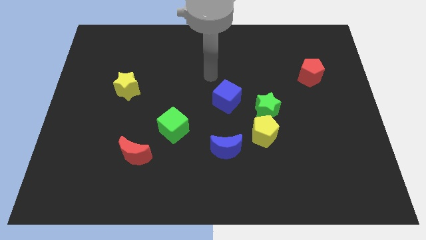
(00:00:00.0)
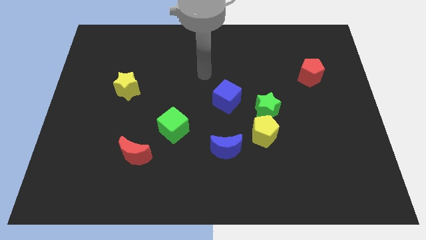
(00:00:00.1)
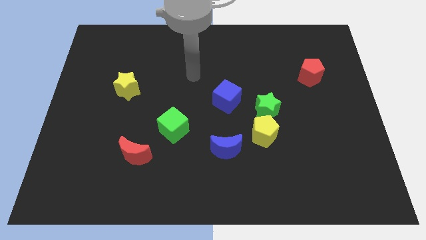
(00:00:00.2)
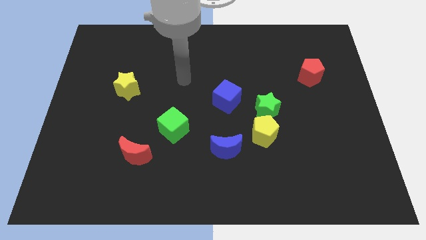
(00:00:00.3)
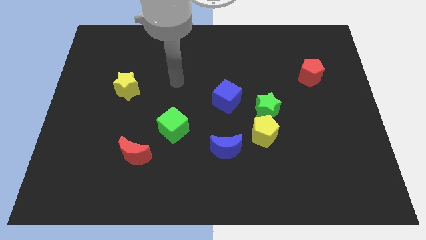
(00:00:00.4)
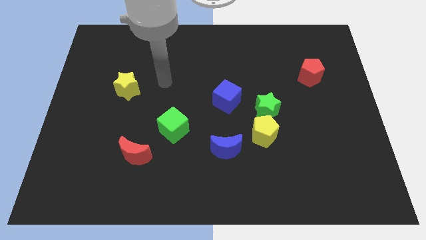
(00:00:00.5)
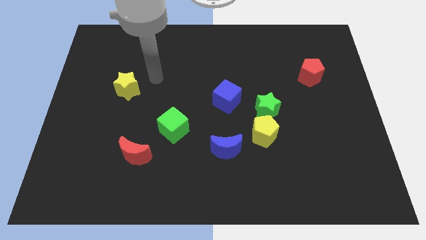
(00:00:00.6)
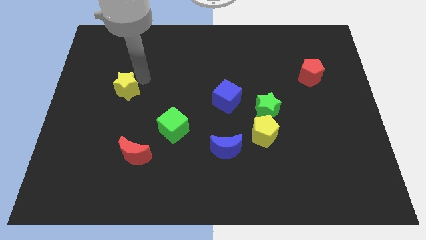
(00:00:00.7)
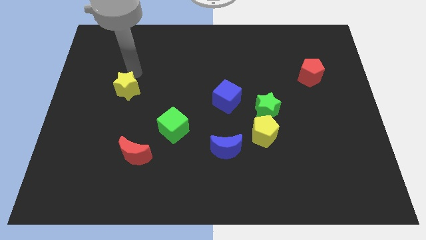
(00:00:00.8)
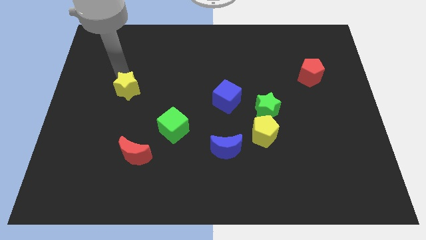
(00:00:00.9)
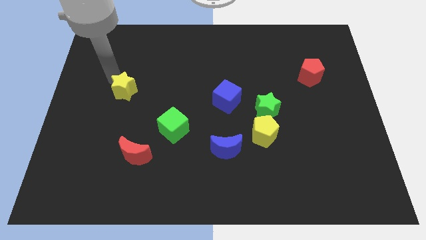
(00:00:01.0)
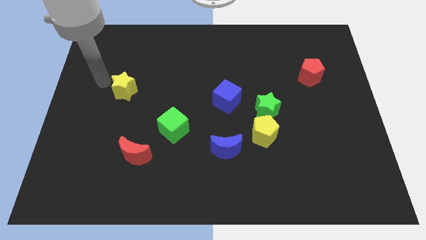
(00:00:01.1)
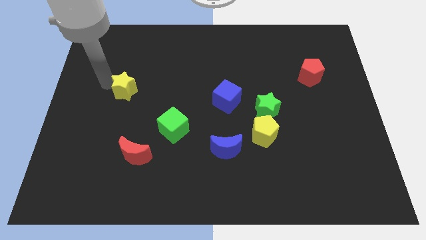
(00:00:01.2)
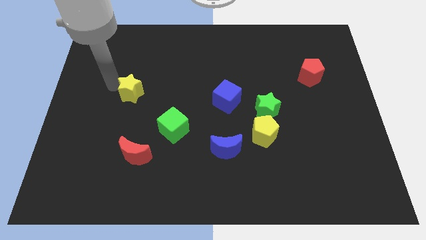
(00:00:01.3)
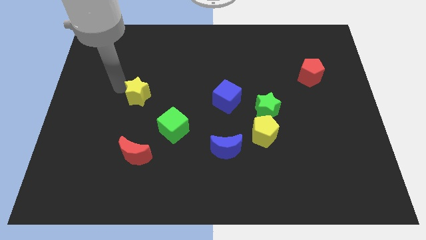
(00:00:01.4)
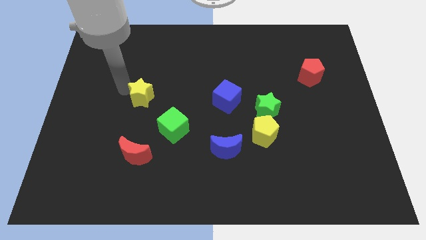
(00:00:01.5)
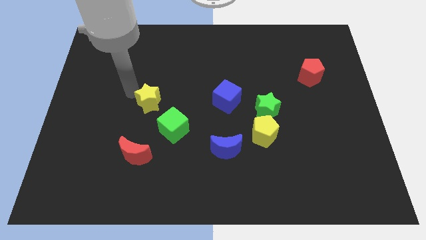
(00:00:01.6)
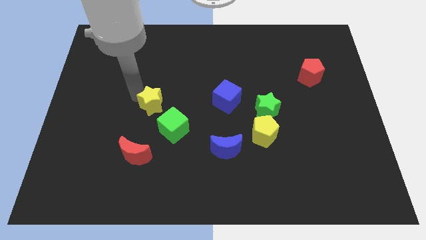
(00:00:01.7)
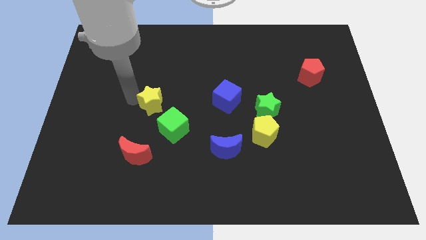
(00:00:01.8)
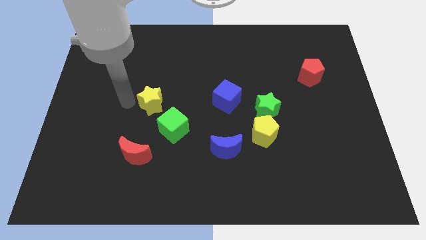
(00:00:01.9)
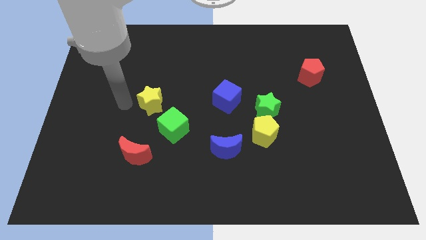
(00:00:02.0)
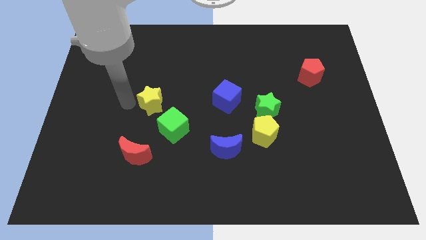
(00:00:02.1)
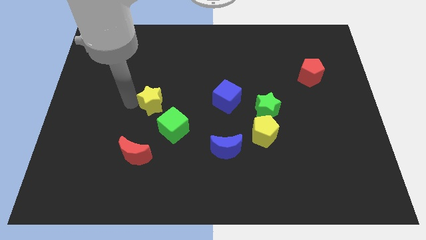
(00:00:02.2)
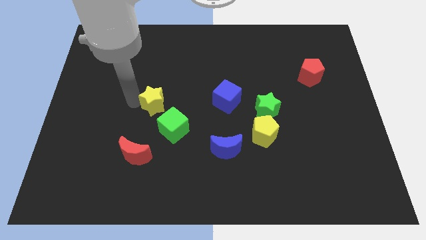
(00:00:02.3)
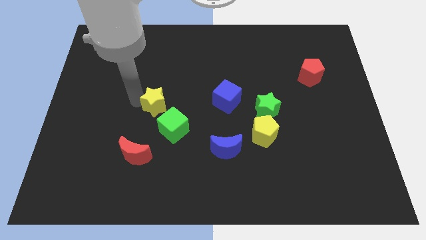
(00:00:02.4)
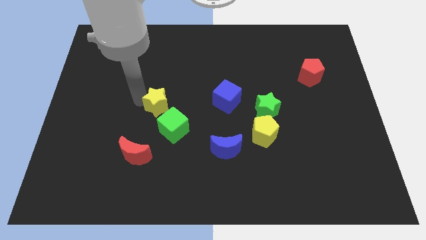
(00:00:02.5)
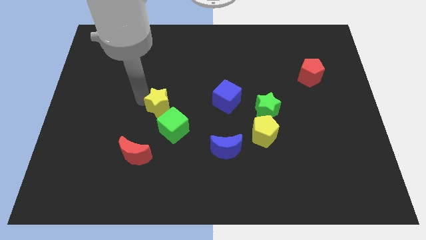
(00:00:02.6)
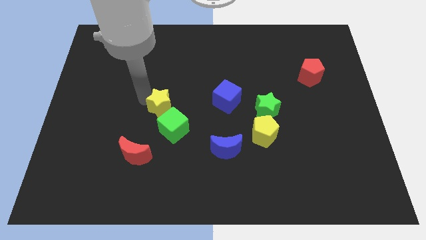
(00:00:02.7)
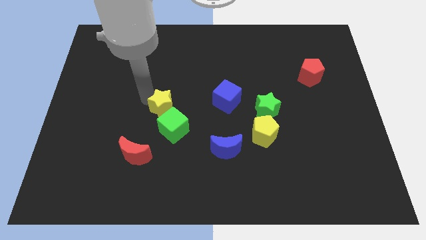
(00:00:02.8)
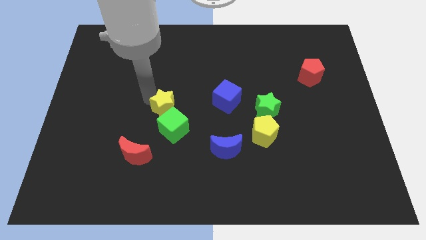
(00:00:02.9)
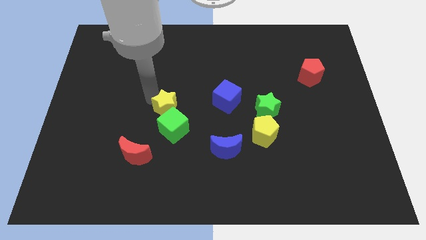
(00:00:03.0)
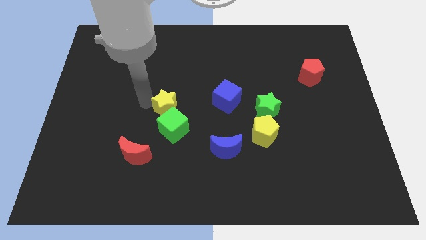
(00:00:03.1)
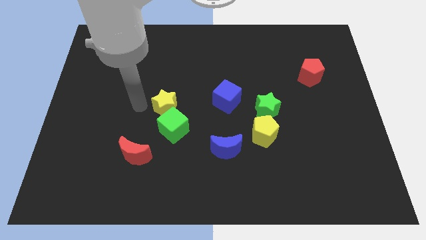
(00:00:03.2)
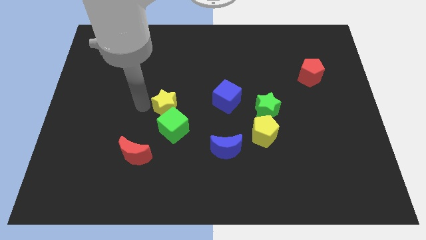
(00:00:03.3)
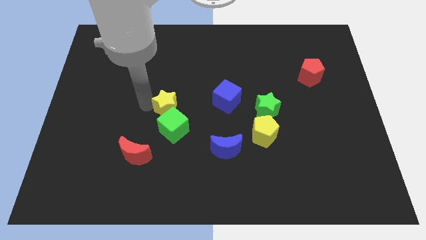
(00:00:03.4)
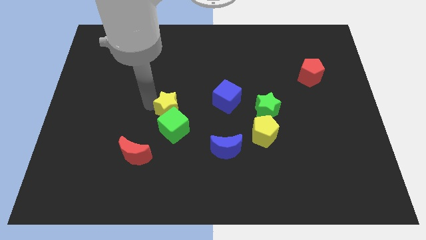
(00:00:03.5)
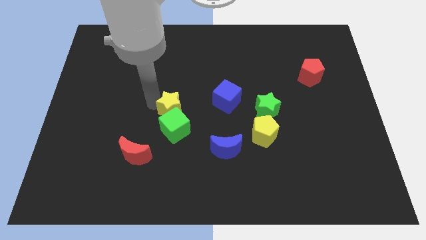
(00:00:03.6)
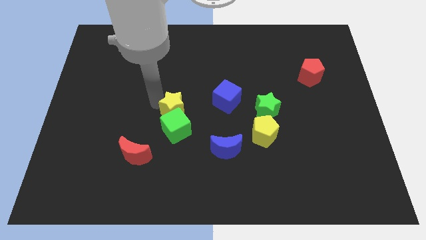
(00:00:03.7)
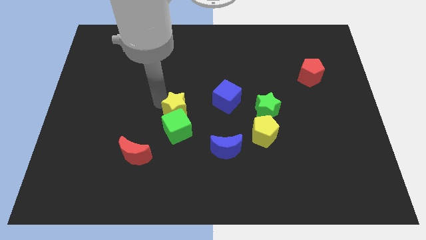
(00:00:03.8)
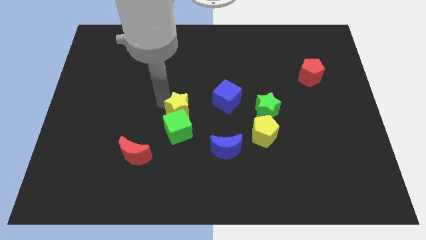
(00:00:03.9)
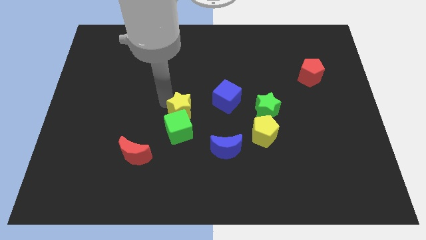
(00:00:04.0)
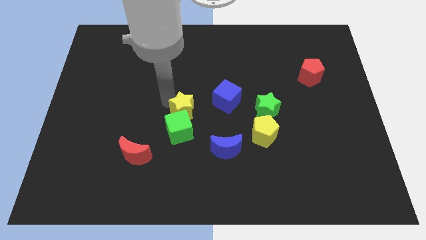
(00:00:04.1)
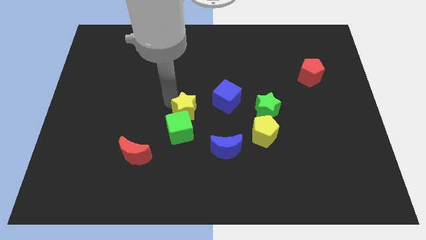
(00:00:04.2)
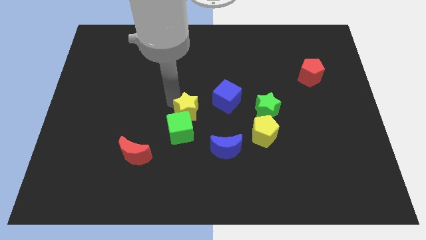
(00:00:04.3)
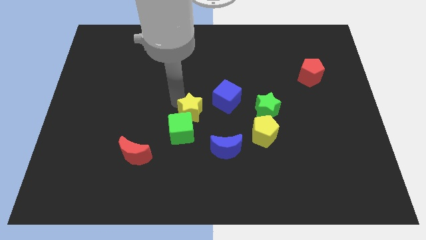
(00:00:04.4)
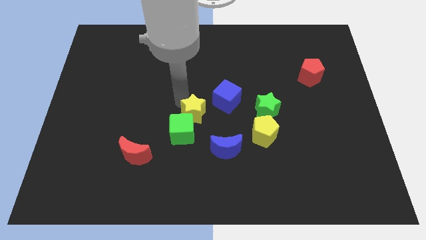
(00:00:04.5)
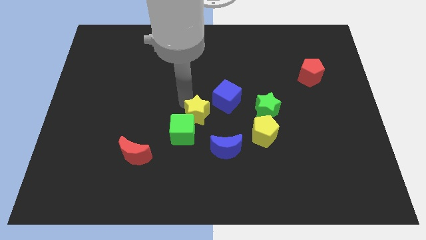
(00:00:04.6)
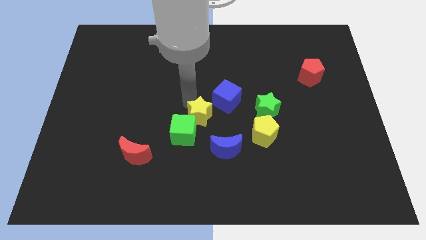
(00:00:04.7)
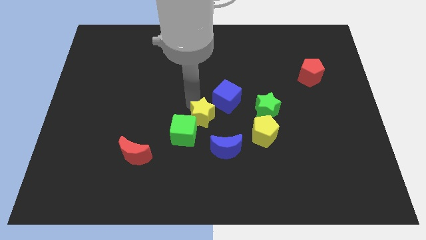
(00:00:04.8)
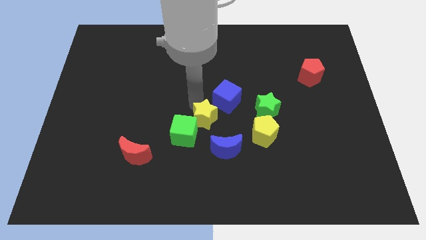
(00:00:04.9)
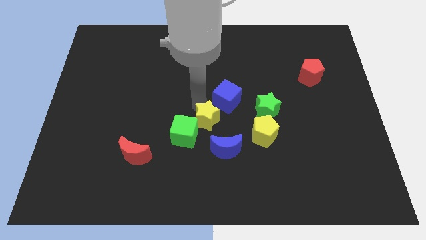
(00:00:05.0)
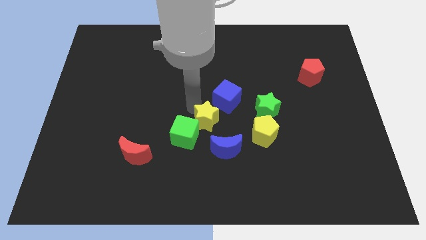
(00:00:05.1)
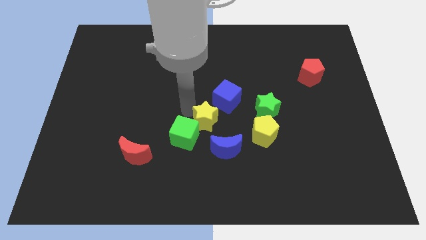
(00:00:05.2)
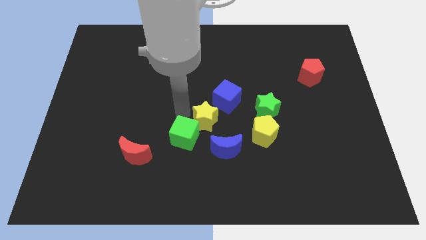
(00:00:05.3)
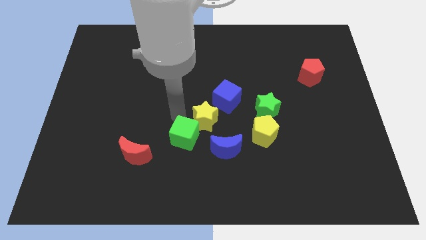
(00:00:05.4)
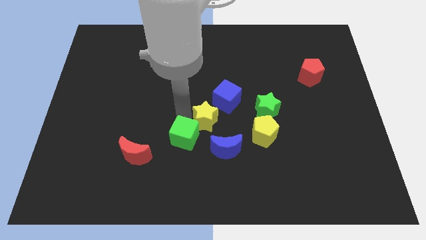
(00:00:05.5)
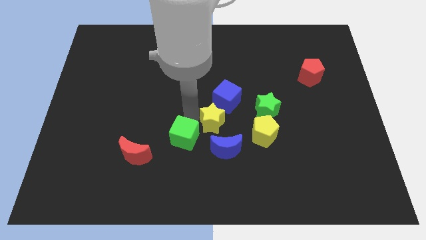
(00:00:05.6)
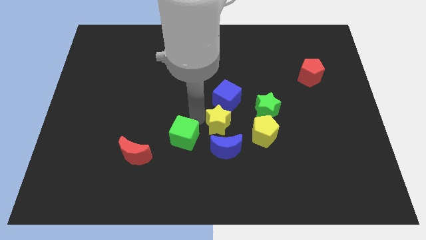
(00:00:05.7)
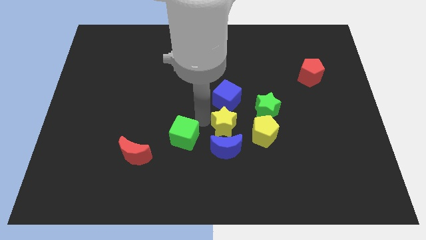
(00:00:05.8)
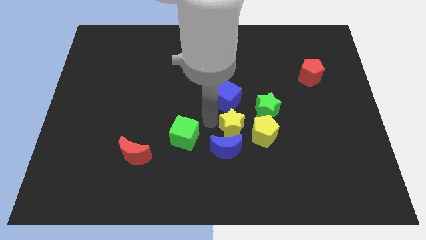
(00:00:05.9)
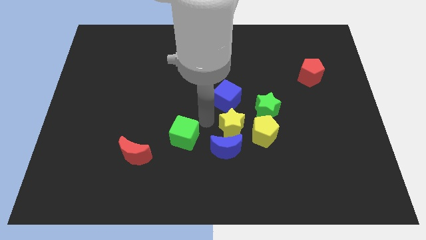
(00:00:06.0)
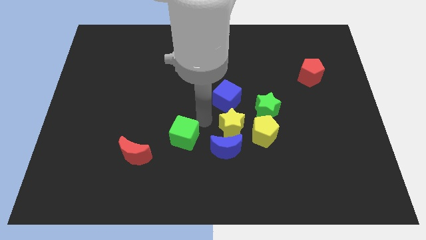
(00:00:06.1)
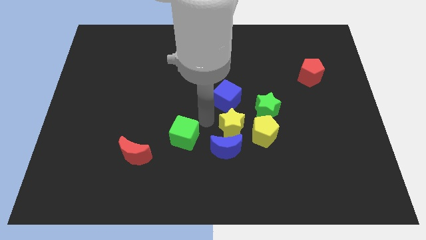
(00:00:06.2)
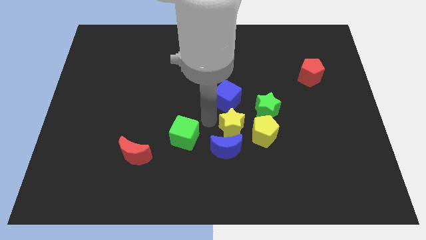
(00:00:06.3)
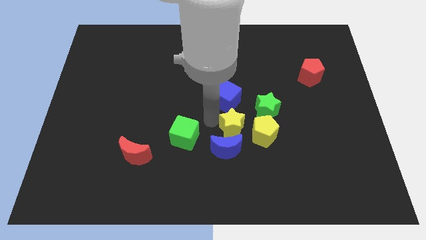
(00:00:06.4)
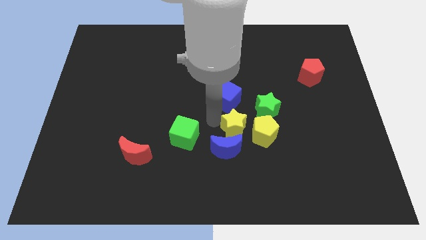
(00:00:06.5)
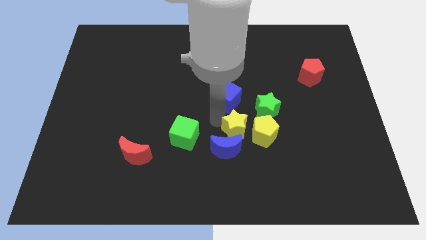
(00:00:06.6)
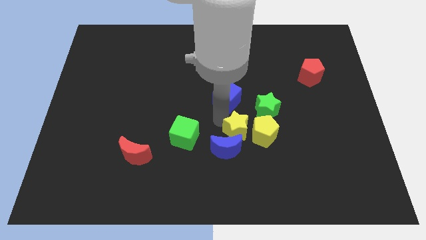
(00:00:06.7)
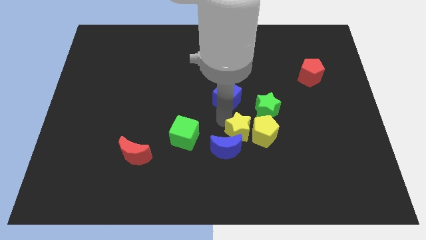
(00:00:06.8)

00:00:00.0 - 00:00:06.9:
put the yellow star close to the yellow pentagon
